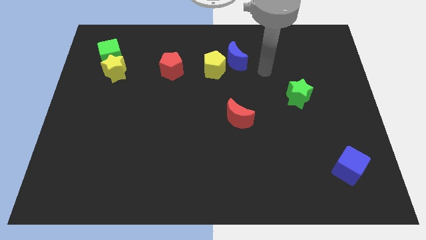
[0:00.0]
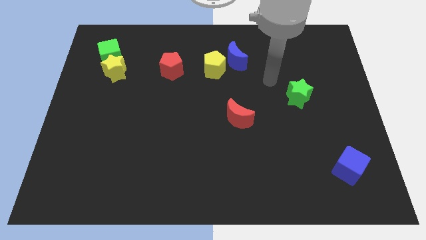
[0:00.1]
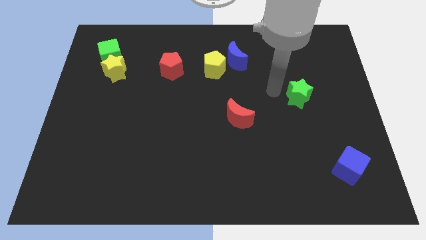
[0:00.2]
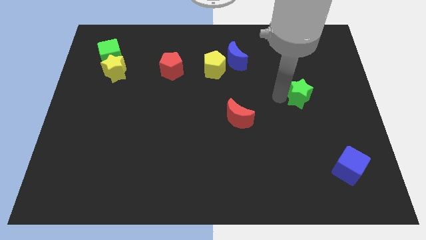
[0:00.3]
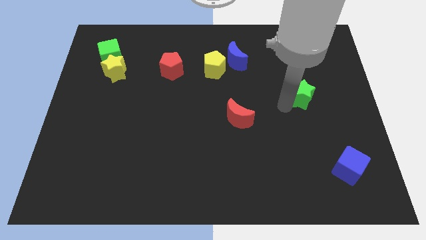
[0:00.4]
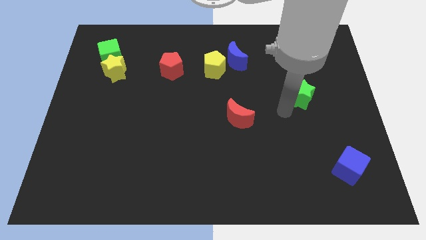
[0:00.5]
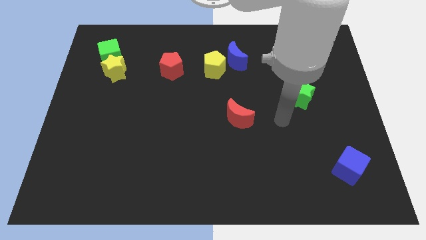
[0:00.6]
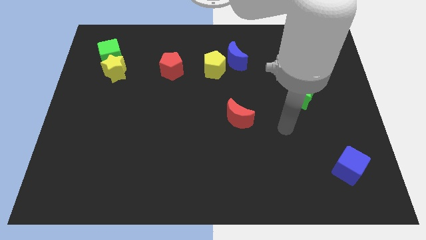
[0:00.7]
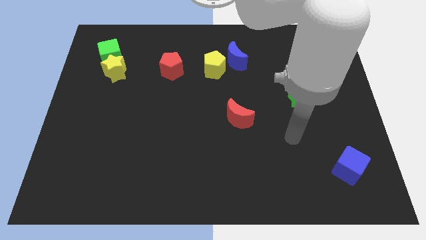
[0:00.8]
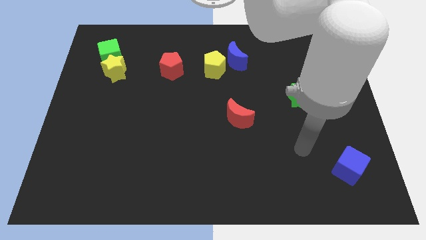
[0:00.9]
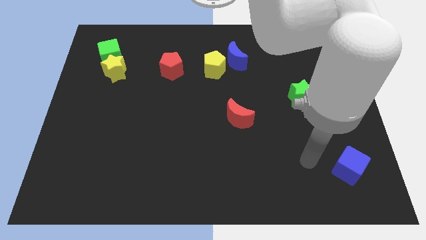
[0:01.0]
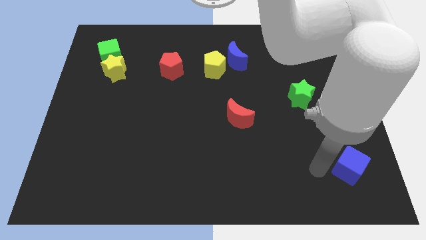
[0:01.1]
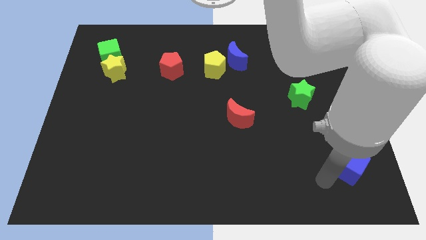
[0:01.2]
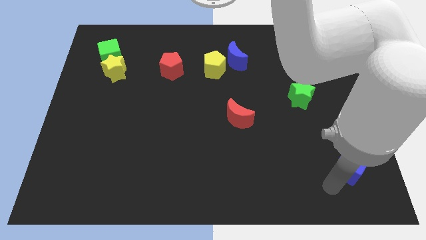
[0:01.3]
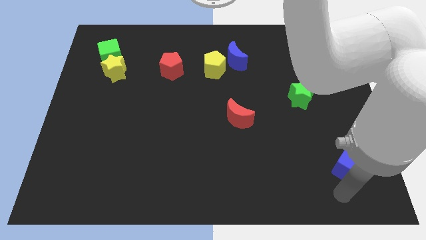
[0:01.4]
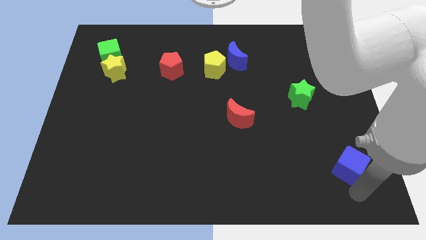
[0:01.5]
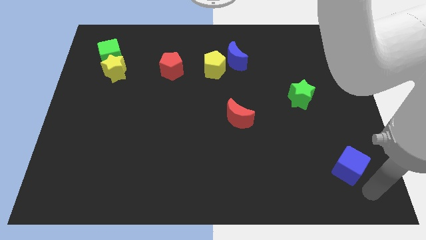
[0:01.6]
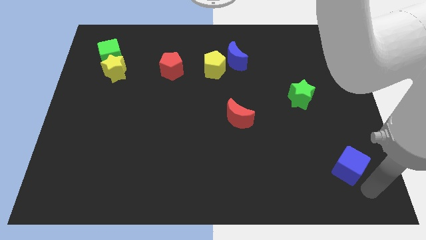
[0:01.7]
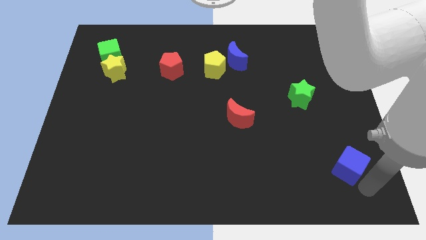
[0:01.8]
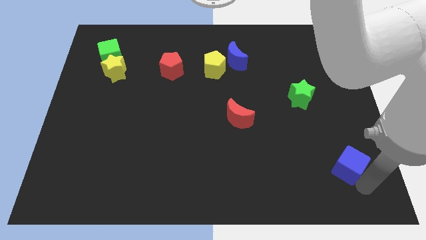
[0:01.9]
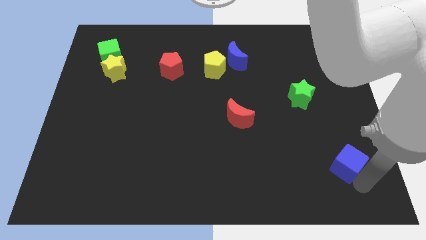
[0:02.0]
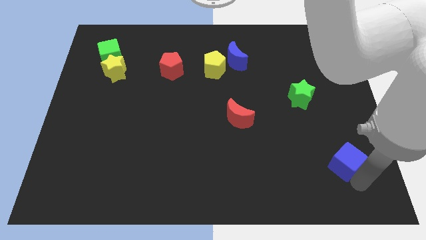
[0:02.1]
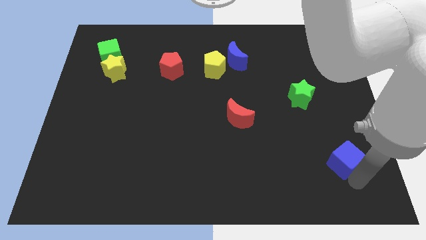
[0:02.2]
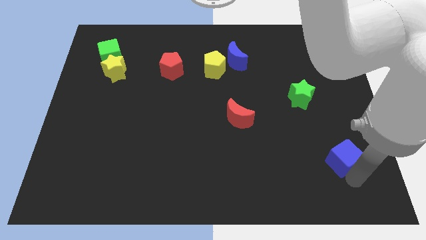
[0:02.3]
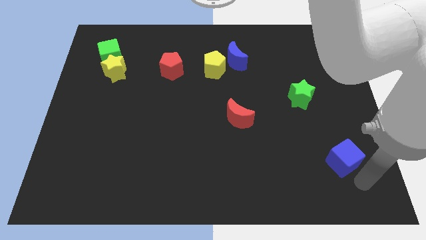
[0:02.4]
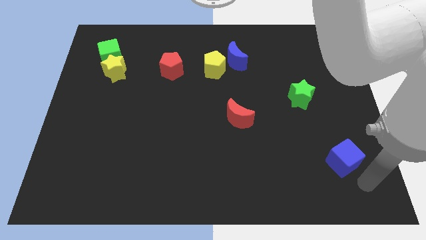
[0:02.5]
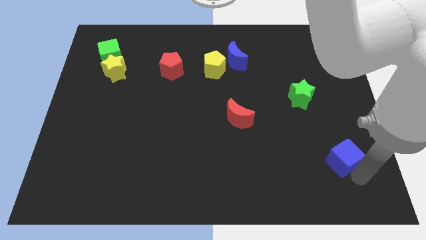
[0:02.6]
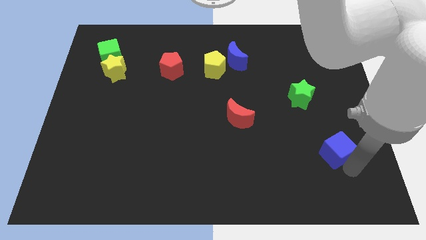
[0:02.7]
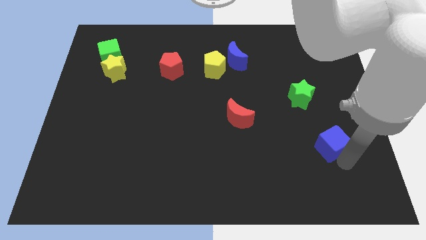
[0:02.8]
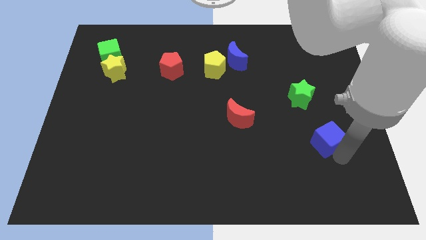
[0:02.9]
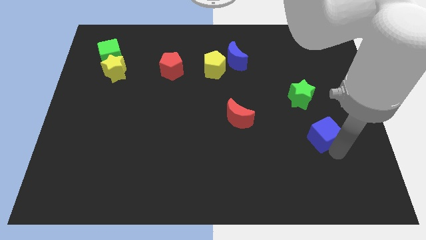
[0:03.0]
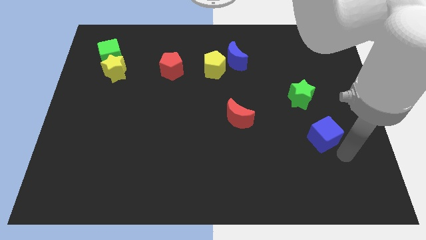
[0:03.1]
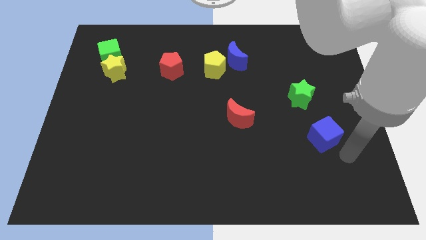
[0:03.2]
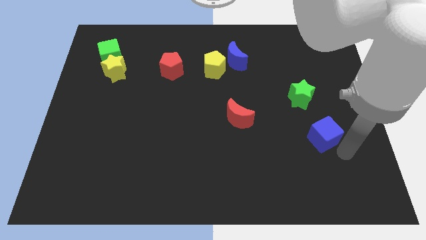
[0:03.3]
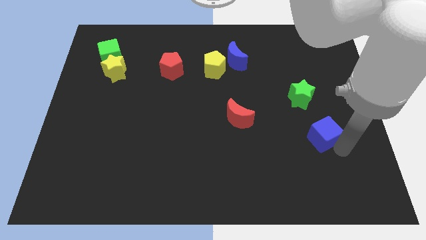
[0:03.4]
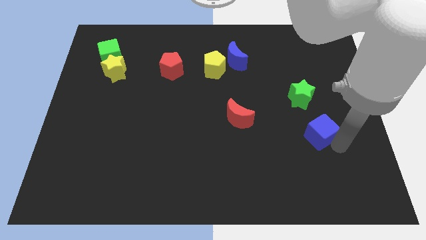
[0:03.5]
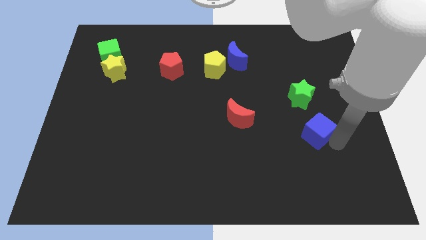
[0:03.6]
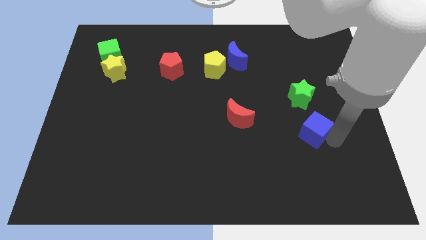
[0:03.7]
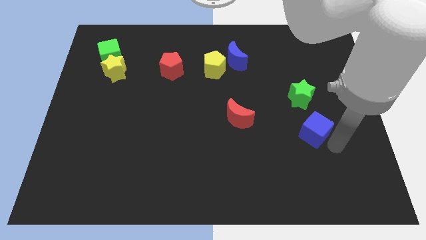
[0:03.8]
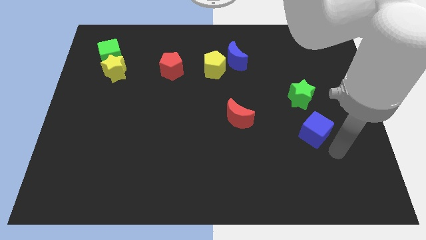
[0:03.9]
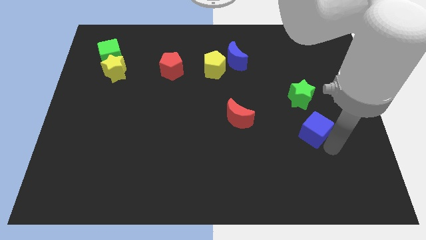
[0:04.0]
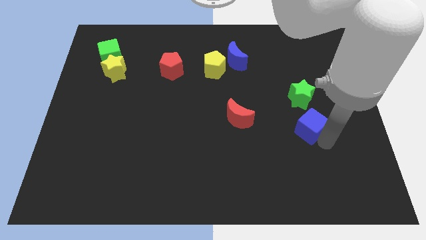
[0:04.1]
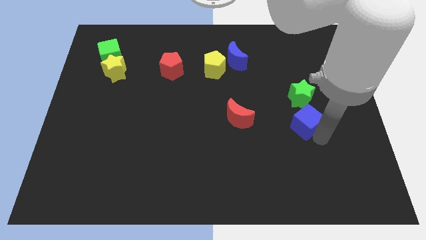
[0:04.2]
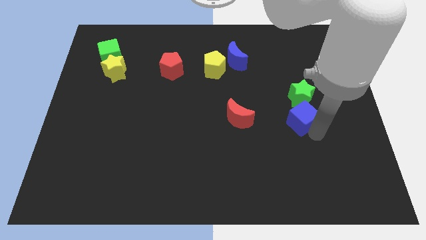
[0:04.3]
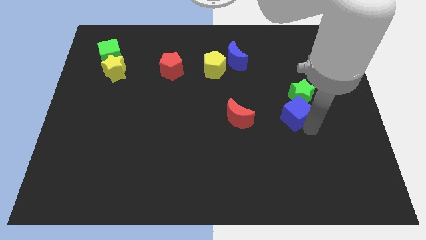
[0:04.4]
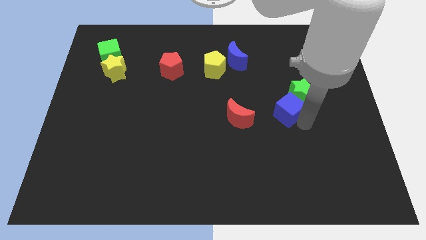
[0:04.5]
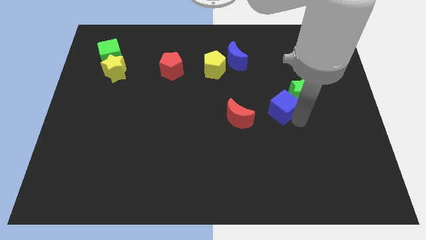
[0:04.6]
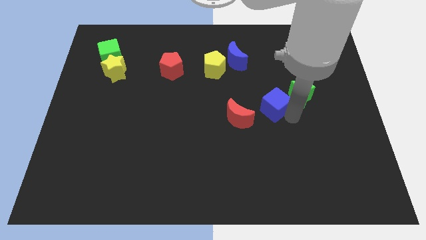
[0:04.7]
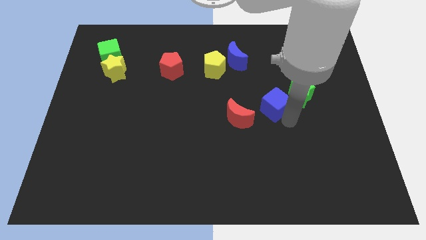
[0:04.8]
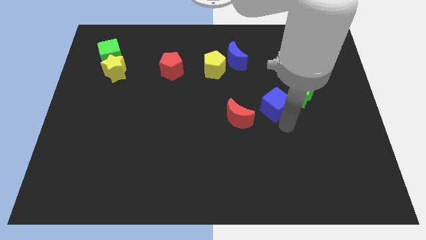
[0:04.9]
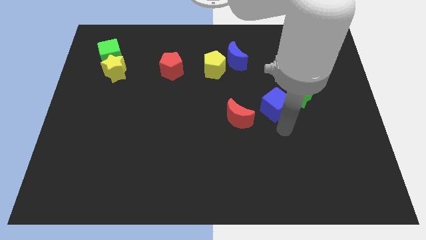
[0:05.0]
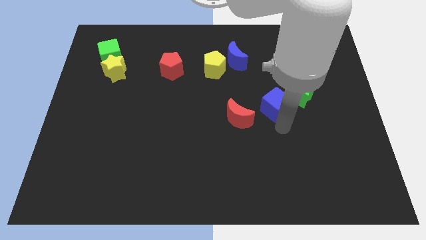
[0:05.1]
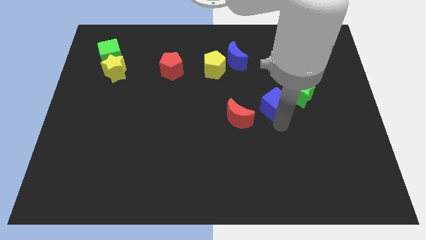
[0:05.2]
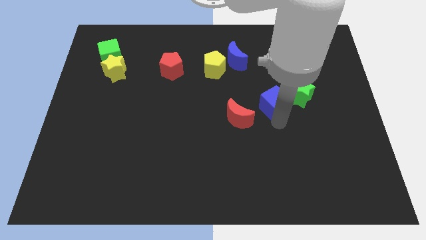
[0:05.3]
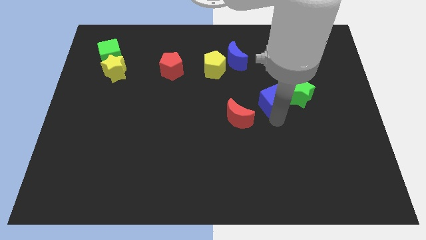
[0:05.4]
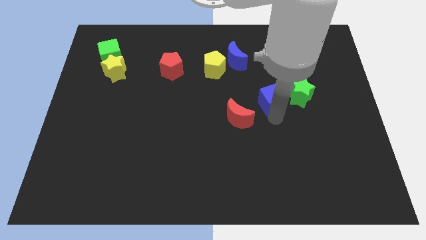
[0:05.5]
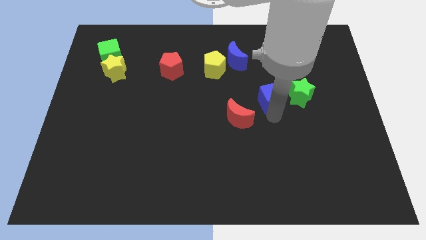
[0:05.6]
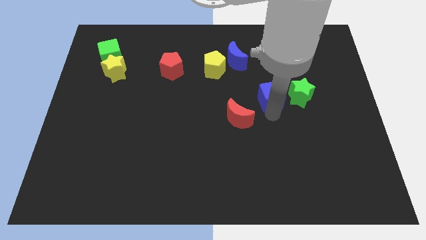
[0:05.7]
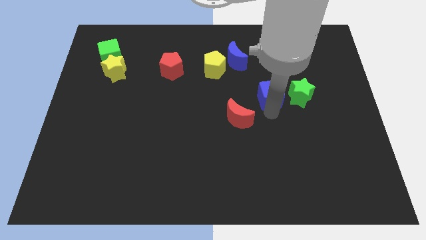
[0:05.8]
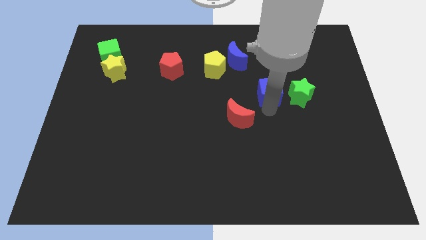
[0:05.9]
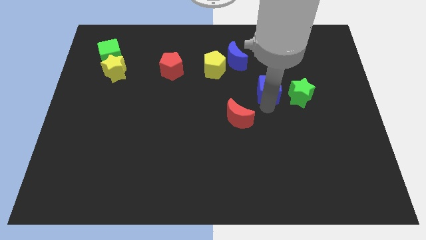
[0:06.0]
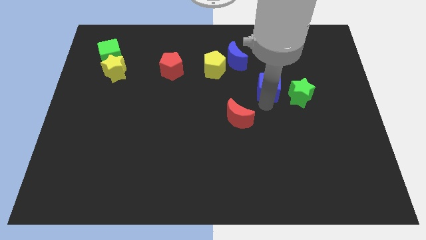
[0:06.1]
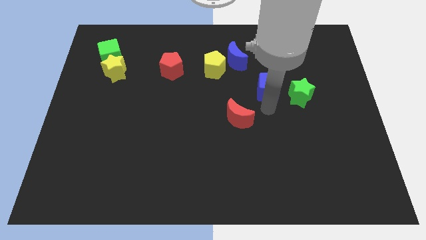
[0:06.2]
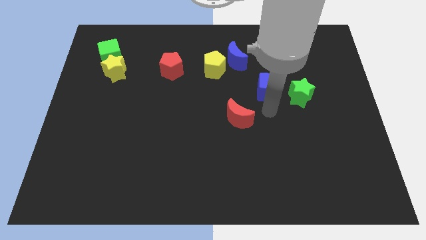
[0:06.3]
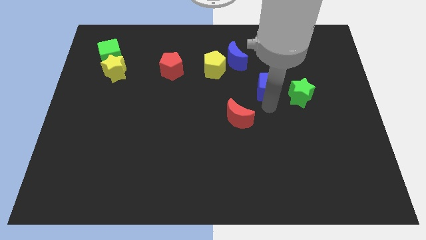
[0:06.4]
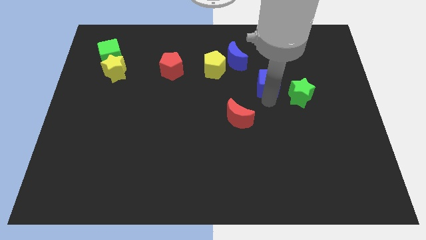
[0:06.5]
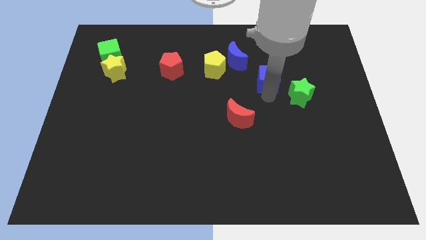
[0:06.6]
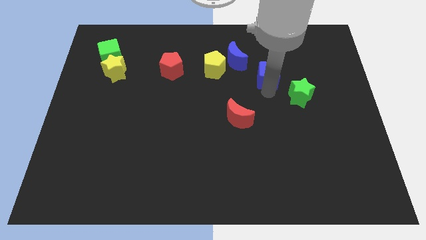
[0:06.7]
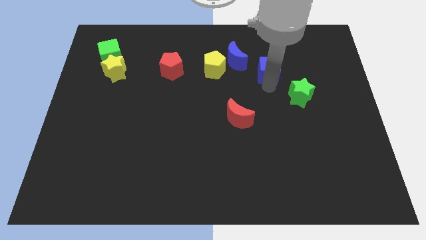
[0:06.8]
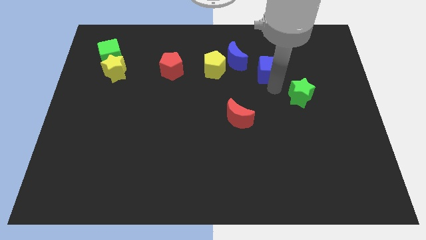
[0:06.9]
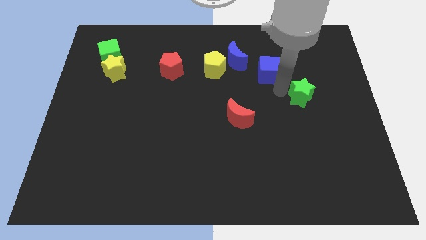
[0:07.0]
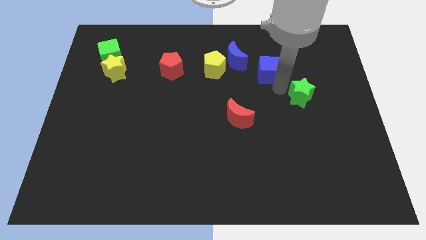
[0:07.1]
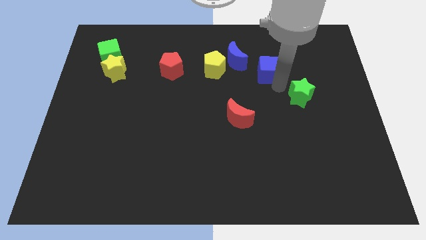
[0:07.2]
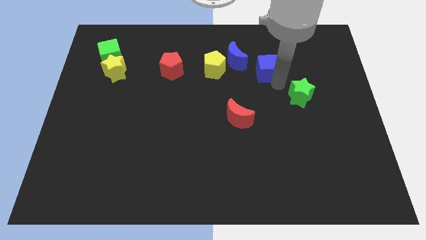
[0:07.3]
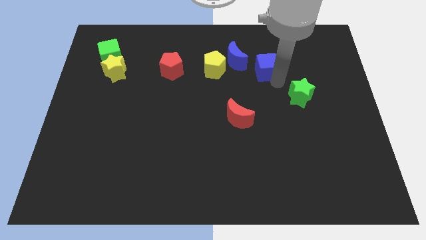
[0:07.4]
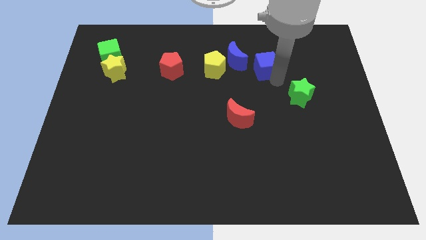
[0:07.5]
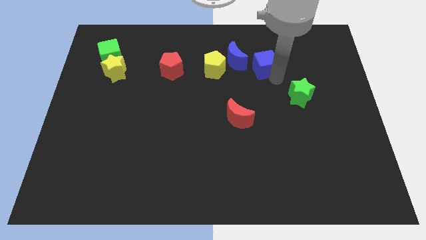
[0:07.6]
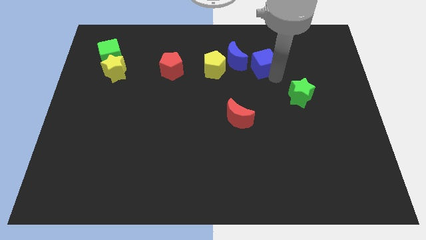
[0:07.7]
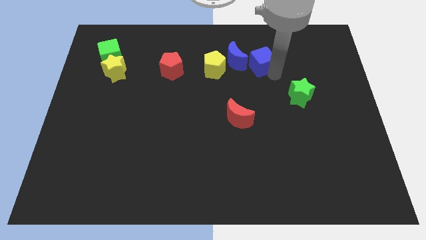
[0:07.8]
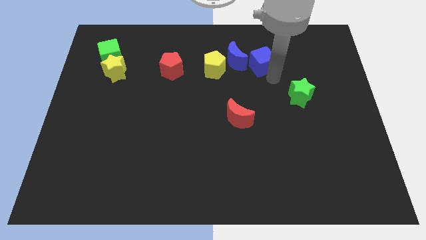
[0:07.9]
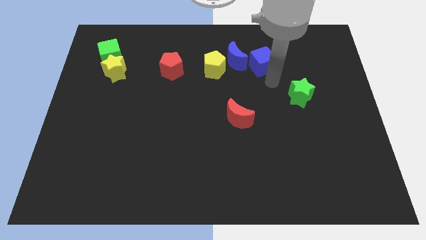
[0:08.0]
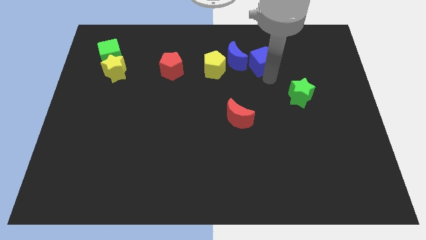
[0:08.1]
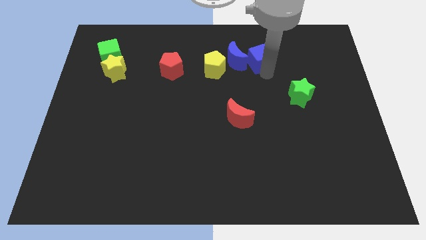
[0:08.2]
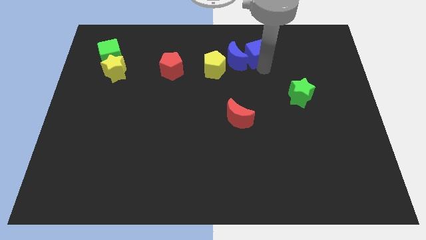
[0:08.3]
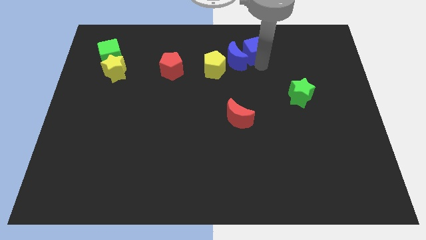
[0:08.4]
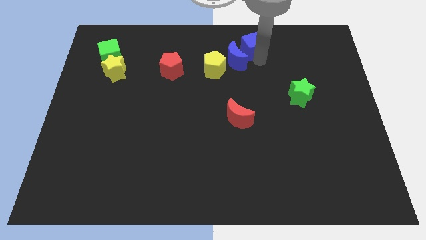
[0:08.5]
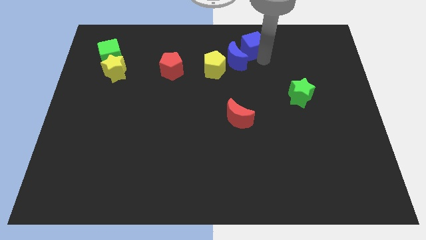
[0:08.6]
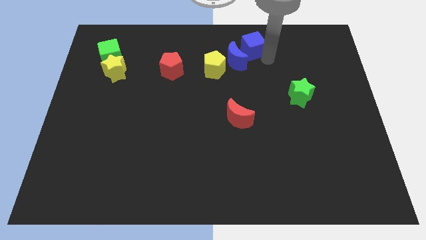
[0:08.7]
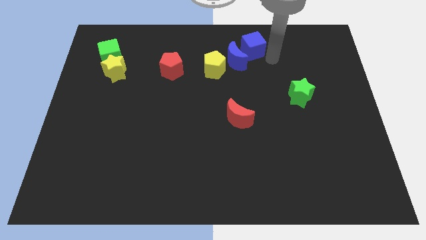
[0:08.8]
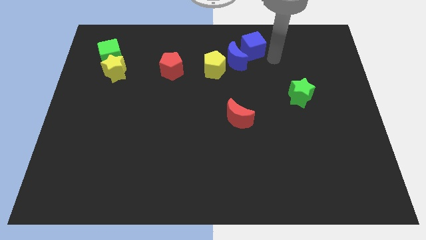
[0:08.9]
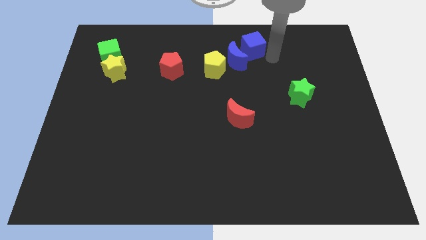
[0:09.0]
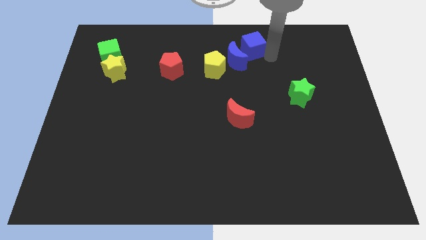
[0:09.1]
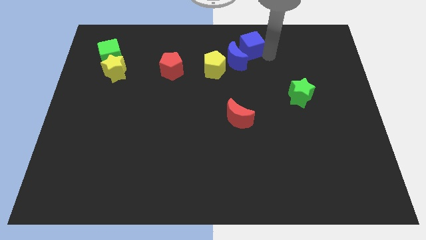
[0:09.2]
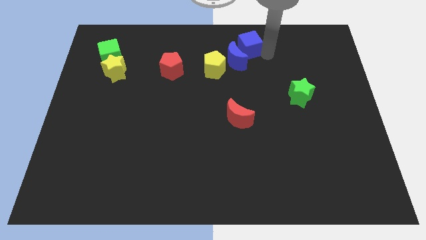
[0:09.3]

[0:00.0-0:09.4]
slide the blue cube to the top
